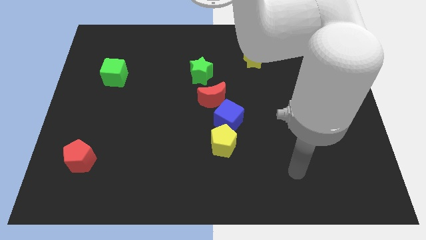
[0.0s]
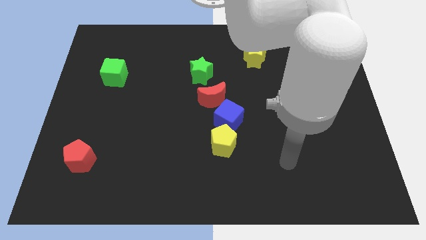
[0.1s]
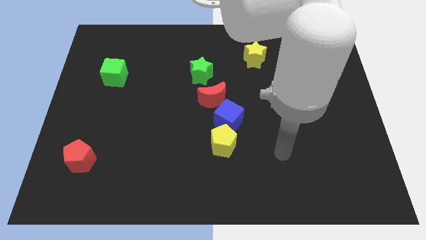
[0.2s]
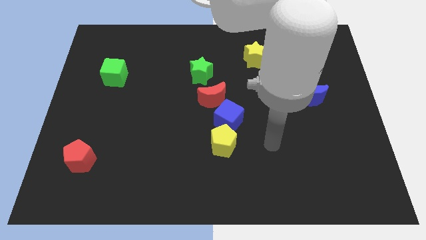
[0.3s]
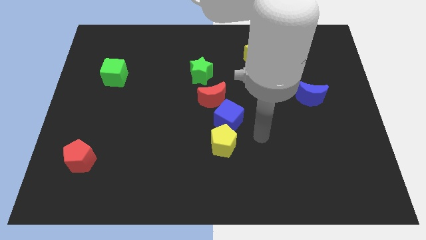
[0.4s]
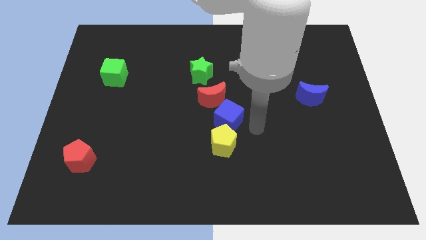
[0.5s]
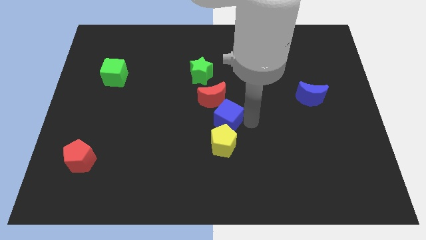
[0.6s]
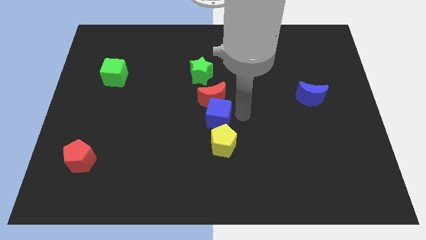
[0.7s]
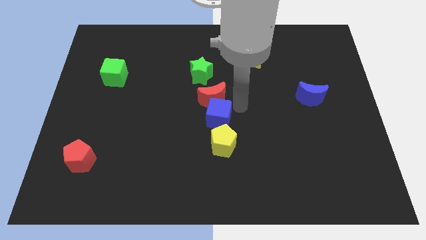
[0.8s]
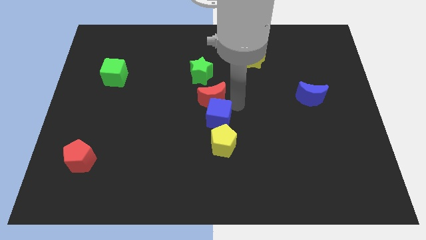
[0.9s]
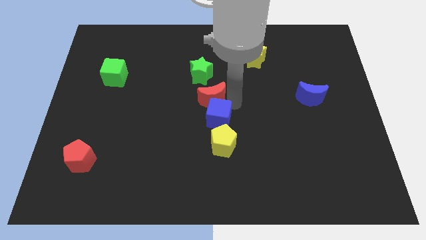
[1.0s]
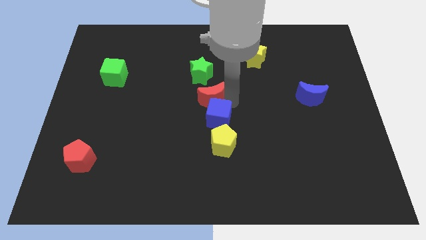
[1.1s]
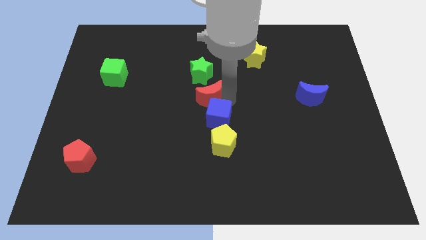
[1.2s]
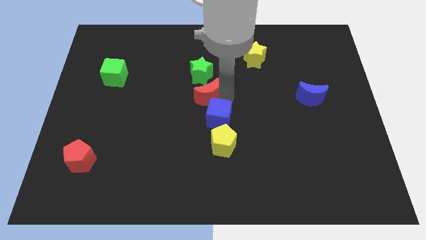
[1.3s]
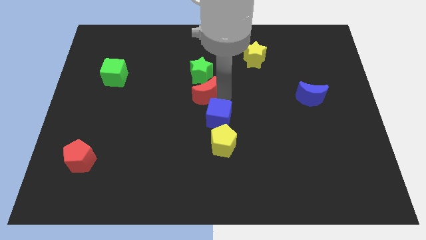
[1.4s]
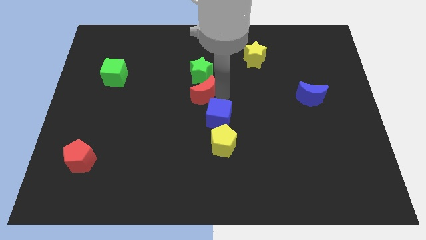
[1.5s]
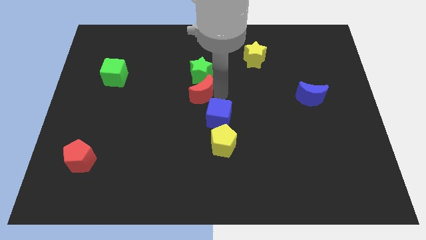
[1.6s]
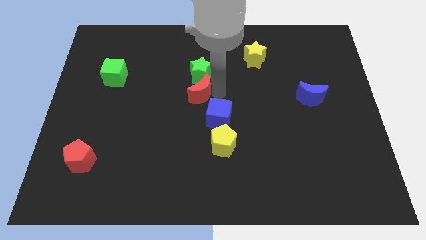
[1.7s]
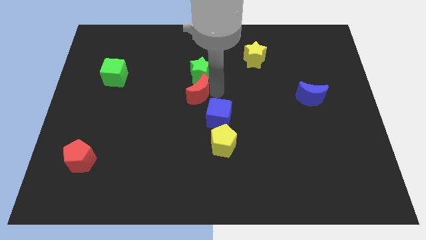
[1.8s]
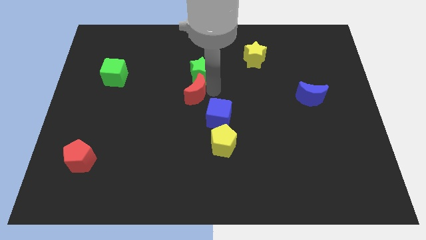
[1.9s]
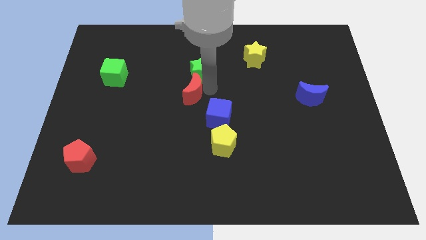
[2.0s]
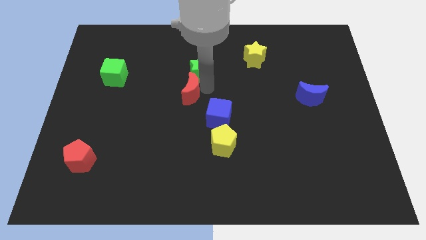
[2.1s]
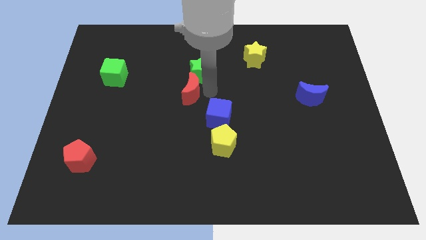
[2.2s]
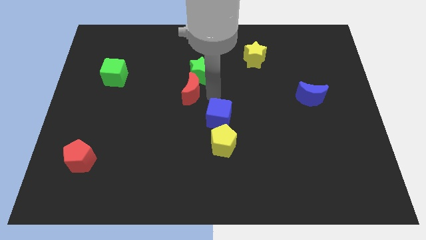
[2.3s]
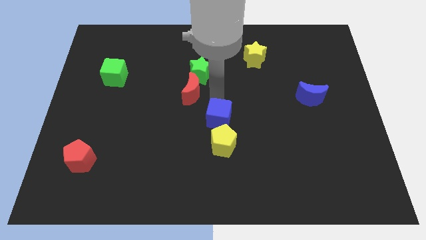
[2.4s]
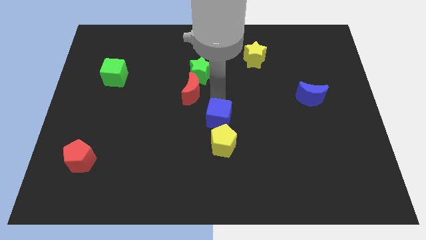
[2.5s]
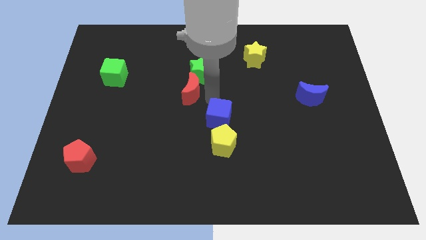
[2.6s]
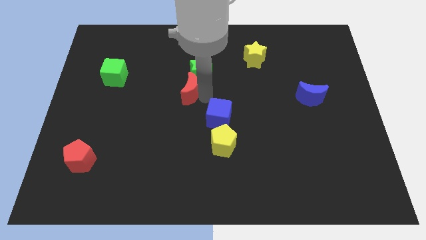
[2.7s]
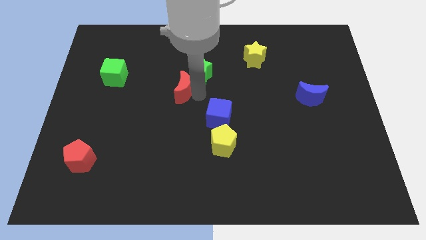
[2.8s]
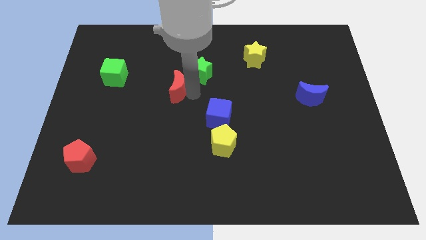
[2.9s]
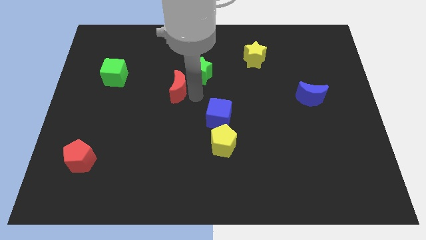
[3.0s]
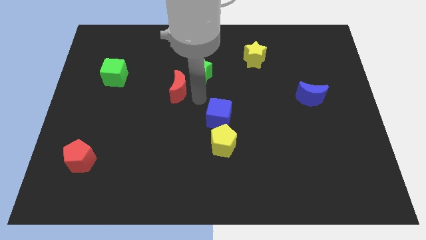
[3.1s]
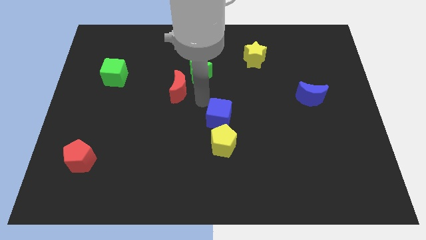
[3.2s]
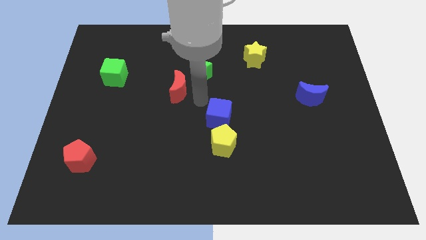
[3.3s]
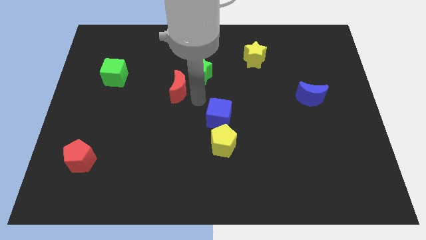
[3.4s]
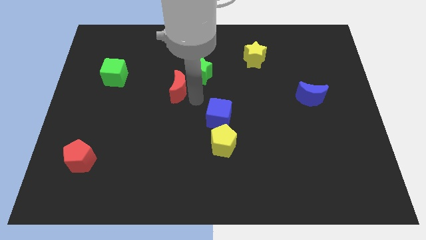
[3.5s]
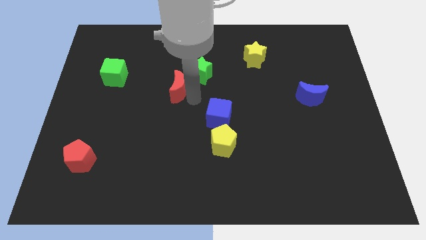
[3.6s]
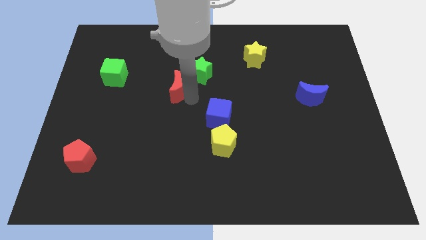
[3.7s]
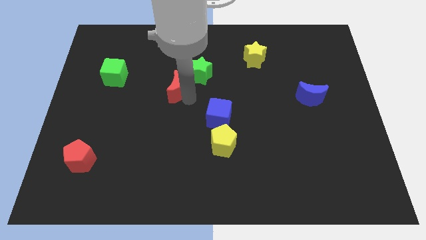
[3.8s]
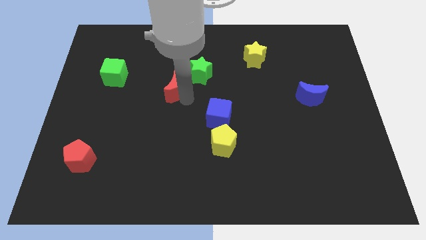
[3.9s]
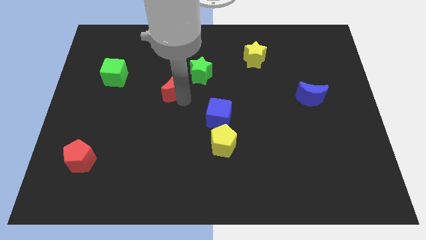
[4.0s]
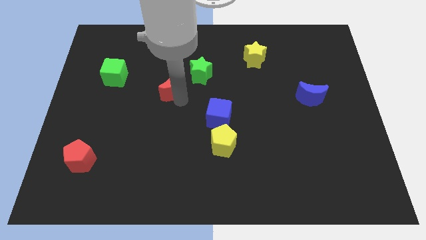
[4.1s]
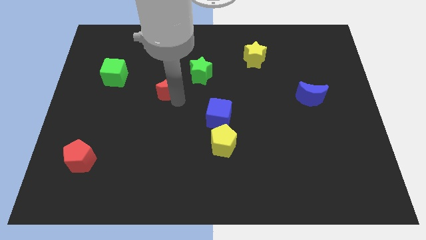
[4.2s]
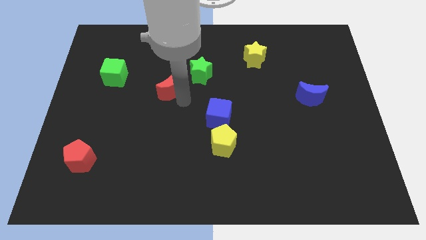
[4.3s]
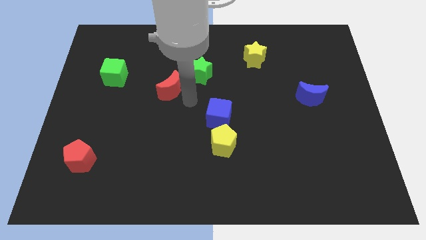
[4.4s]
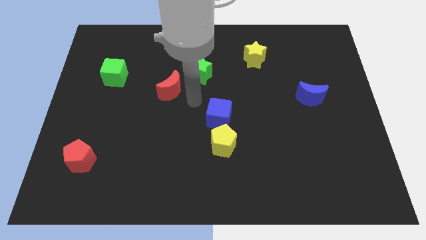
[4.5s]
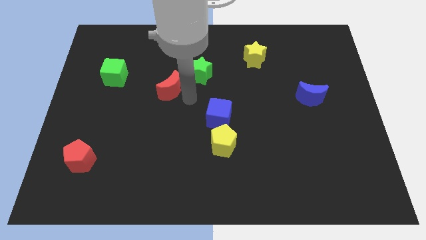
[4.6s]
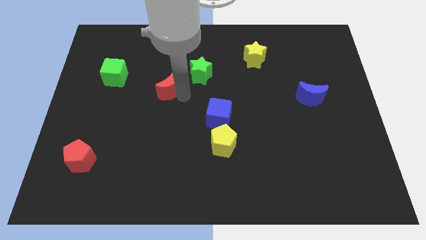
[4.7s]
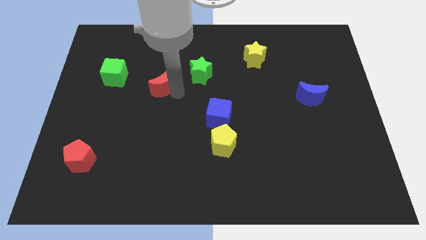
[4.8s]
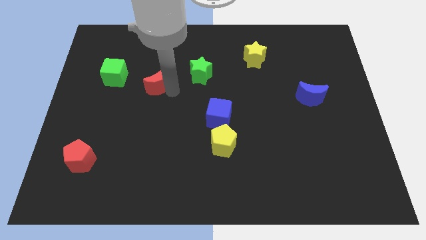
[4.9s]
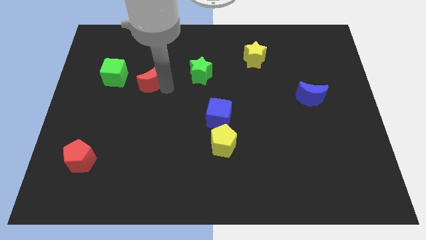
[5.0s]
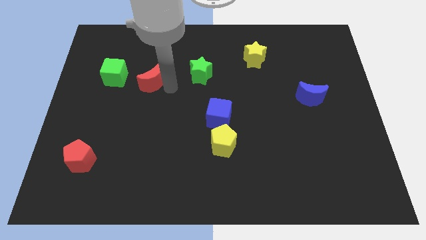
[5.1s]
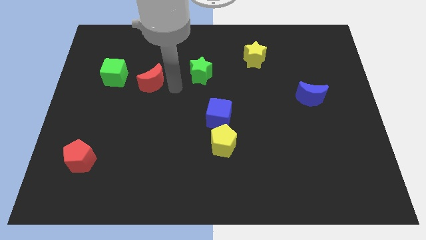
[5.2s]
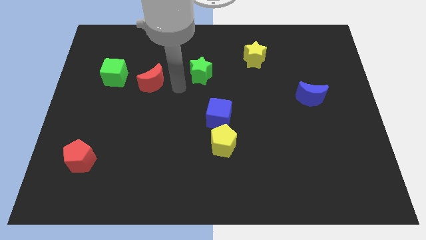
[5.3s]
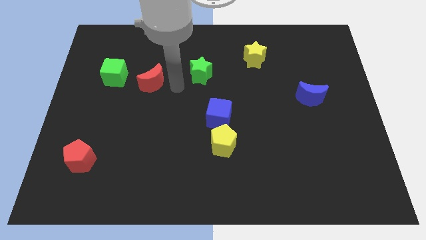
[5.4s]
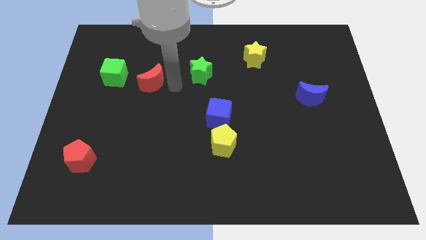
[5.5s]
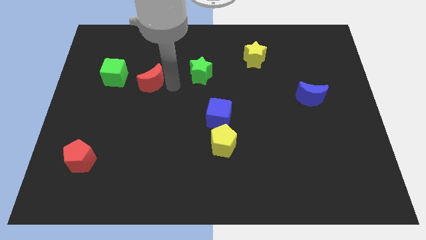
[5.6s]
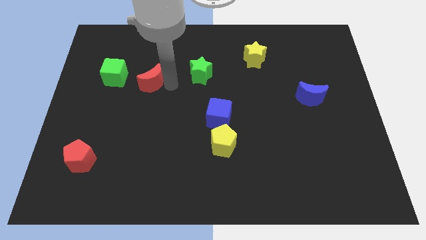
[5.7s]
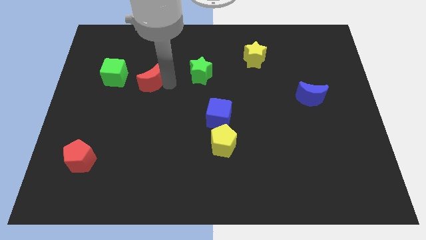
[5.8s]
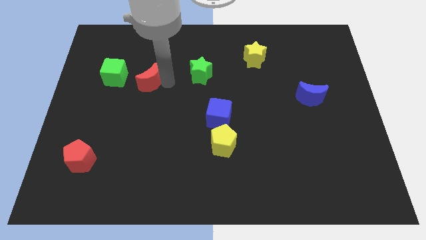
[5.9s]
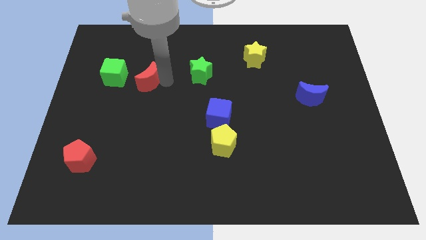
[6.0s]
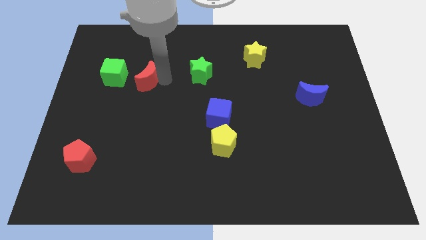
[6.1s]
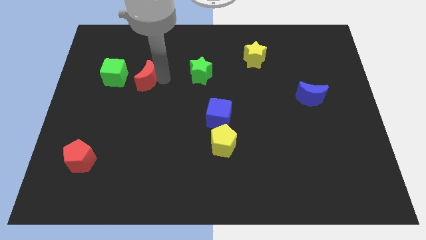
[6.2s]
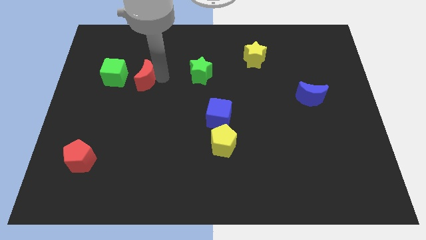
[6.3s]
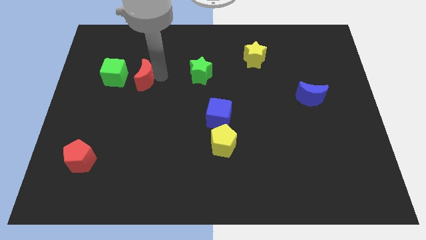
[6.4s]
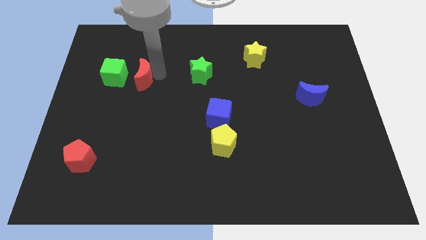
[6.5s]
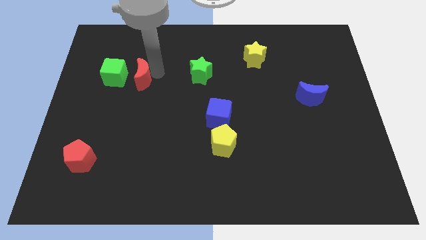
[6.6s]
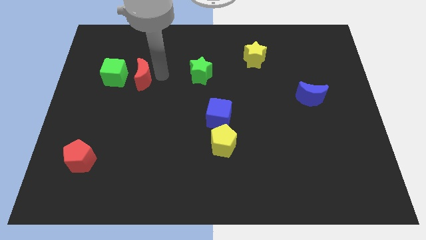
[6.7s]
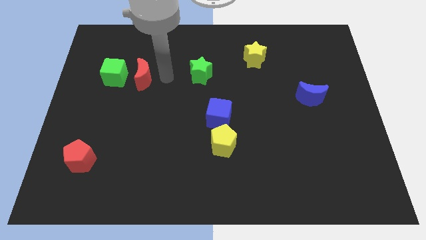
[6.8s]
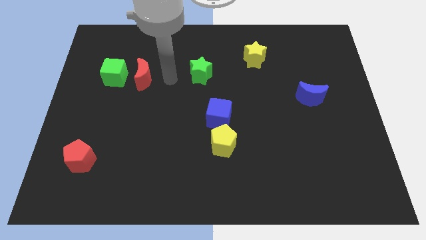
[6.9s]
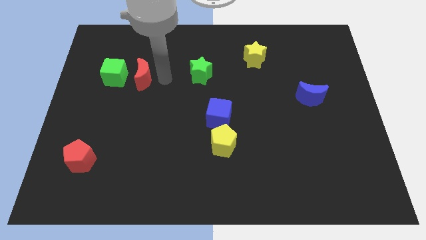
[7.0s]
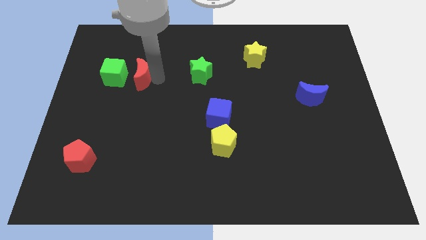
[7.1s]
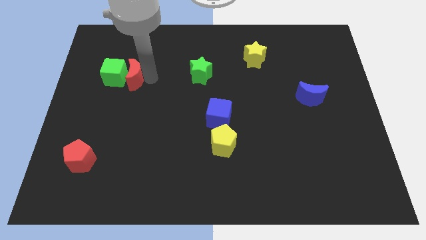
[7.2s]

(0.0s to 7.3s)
put the red moon to the green cube
